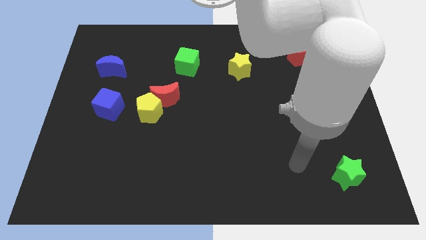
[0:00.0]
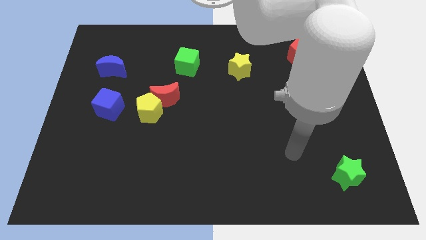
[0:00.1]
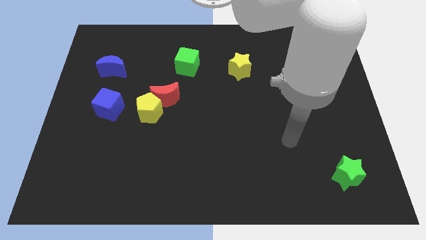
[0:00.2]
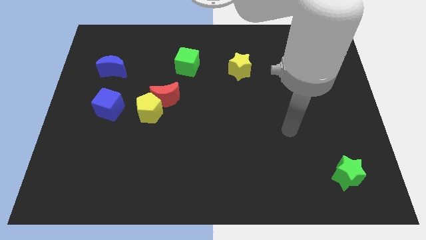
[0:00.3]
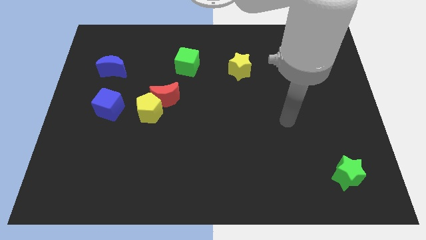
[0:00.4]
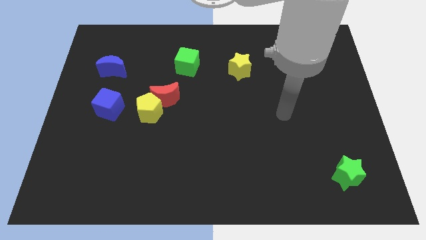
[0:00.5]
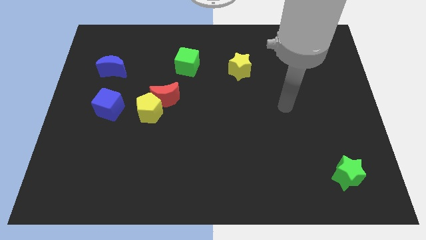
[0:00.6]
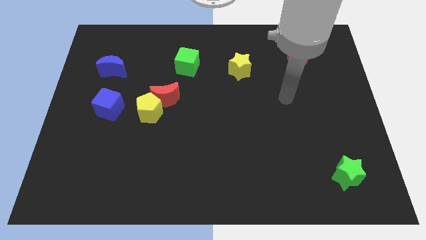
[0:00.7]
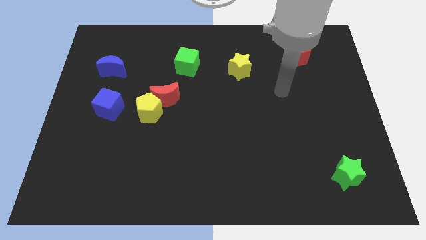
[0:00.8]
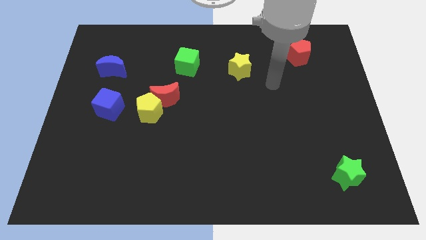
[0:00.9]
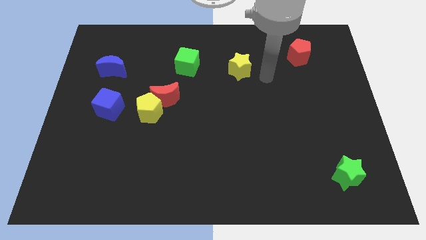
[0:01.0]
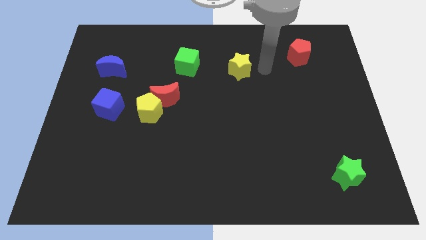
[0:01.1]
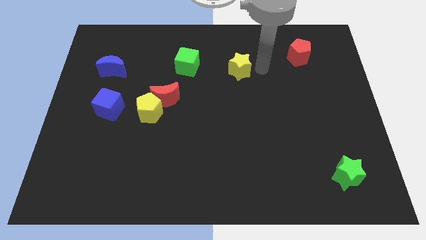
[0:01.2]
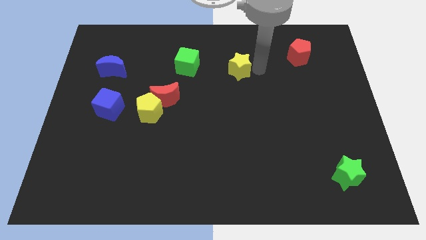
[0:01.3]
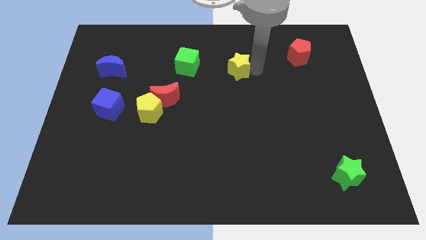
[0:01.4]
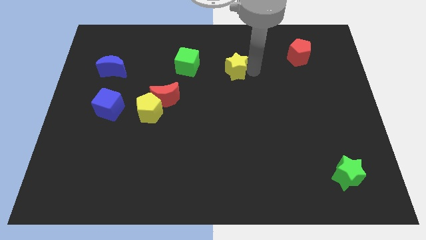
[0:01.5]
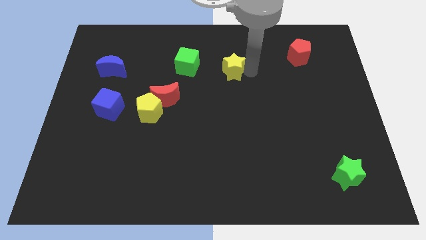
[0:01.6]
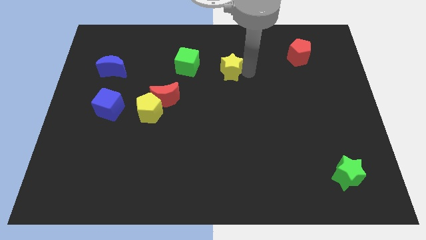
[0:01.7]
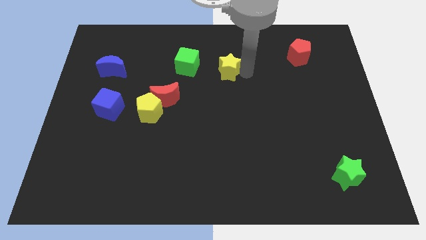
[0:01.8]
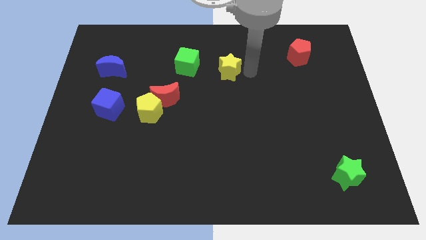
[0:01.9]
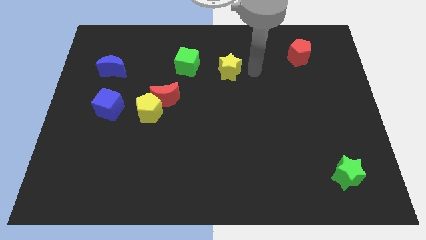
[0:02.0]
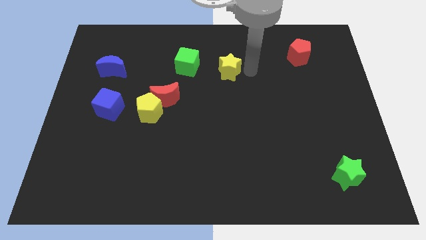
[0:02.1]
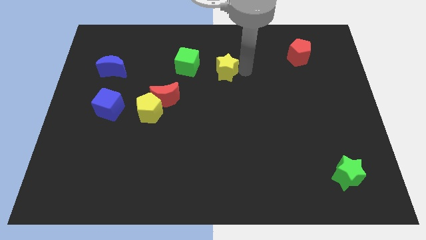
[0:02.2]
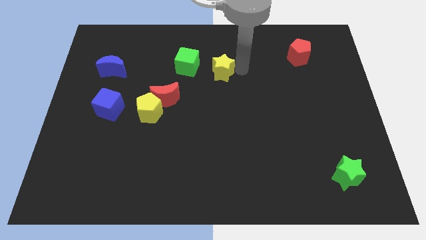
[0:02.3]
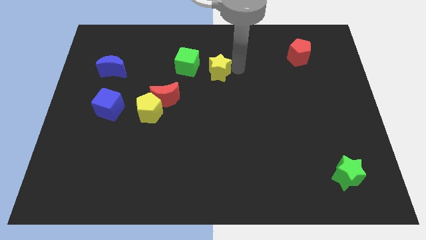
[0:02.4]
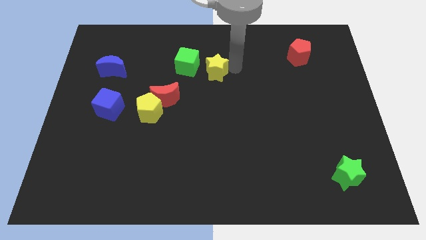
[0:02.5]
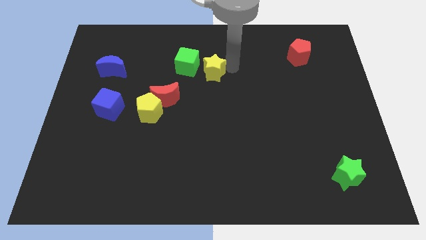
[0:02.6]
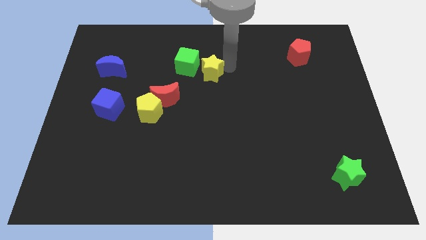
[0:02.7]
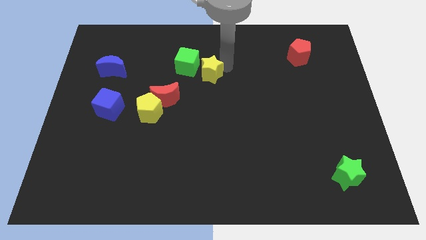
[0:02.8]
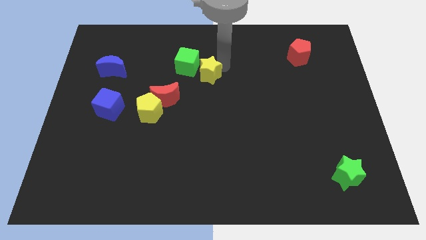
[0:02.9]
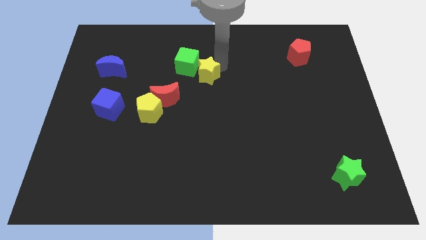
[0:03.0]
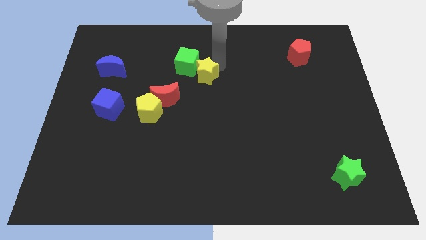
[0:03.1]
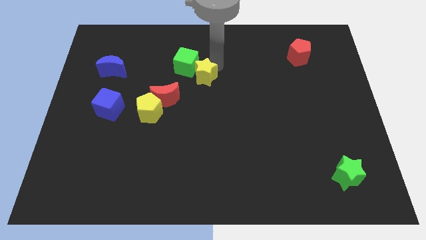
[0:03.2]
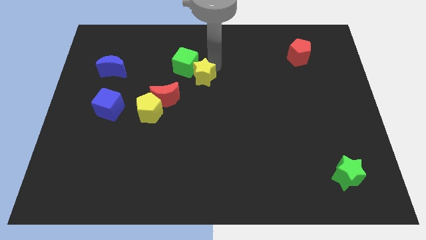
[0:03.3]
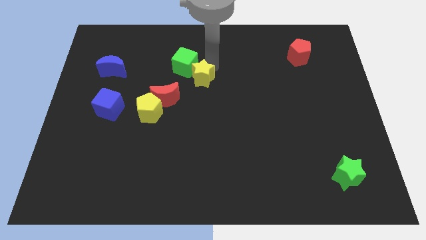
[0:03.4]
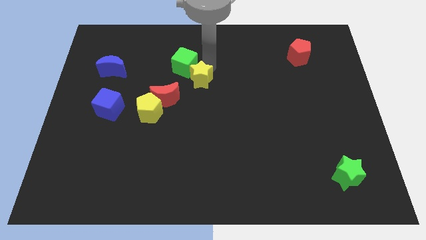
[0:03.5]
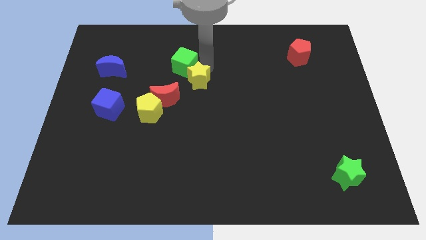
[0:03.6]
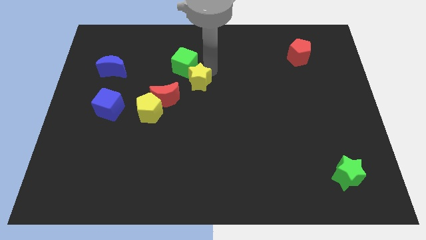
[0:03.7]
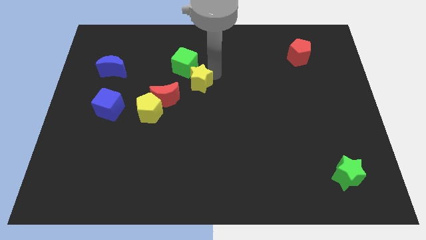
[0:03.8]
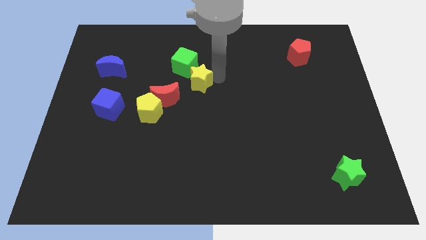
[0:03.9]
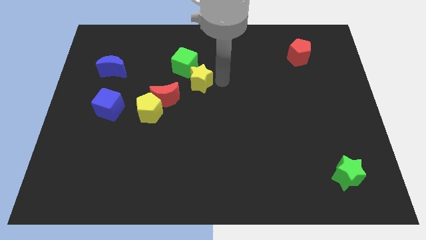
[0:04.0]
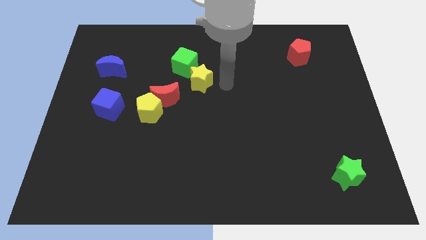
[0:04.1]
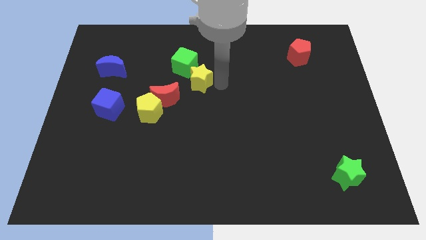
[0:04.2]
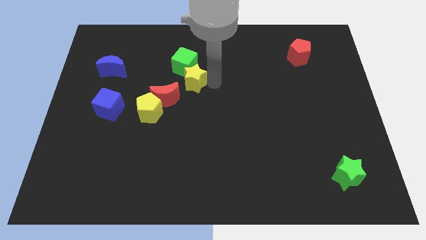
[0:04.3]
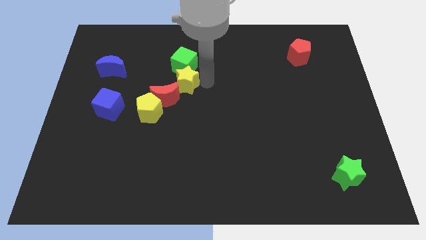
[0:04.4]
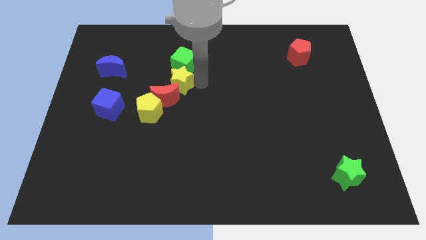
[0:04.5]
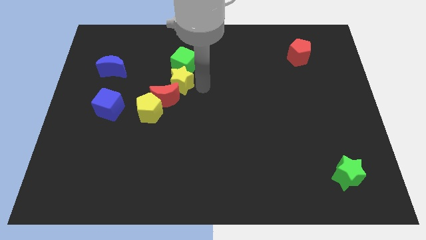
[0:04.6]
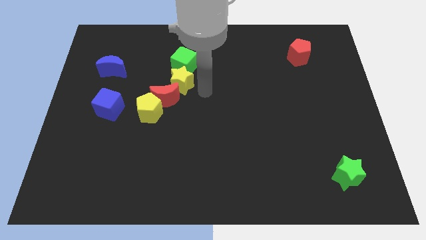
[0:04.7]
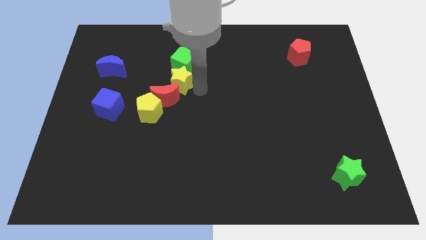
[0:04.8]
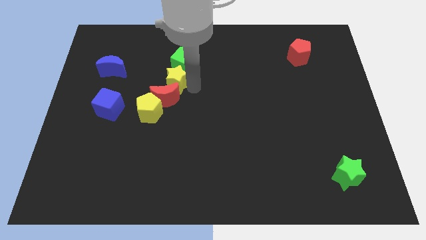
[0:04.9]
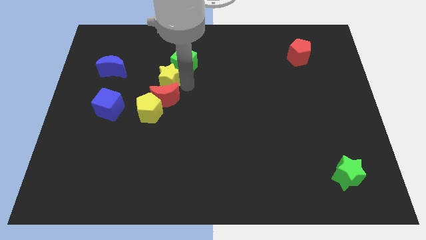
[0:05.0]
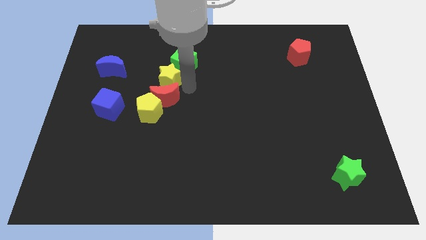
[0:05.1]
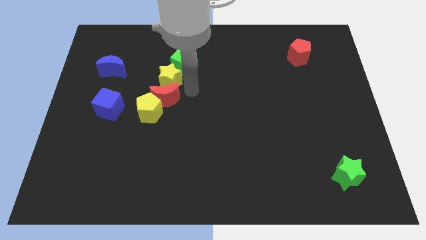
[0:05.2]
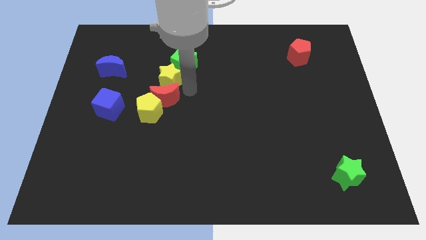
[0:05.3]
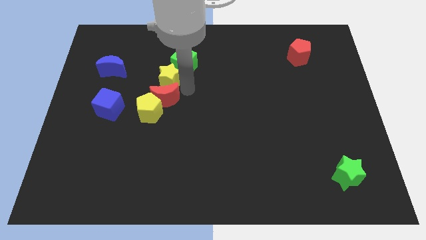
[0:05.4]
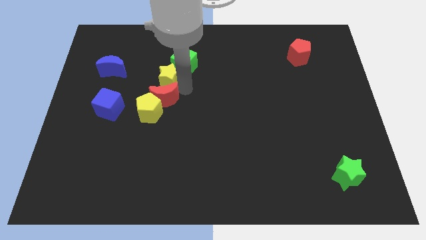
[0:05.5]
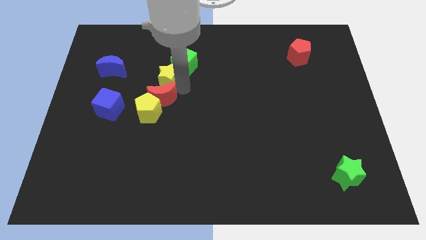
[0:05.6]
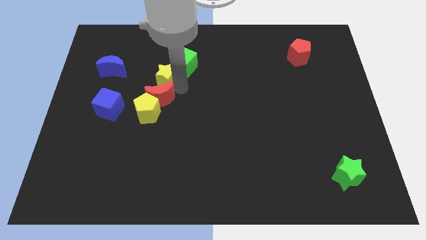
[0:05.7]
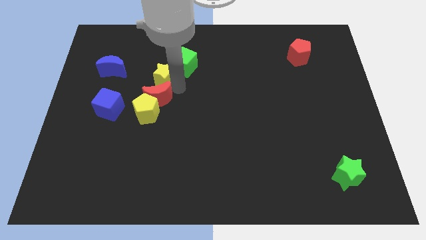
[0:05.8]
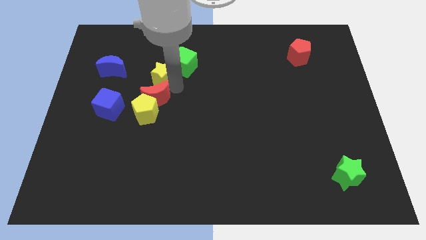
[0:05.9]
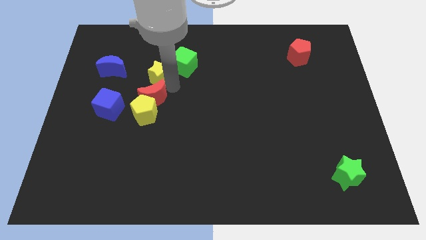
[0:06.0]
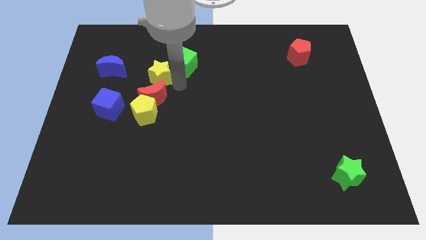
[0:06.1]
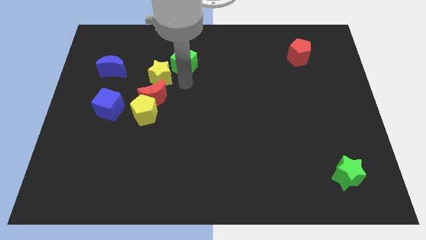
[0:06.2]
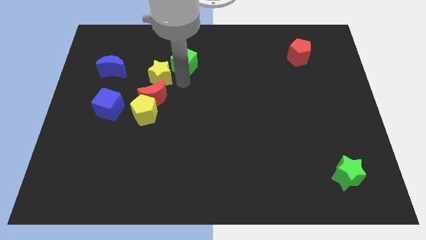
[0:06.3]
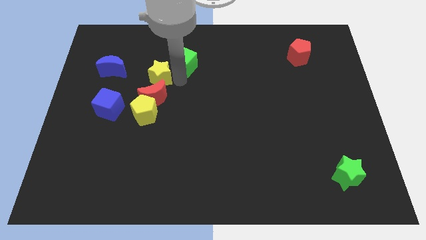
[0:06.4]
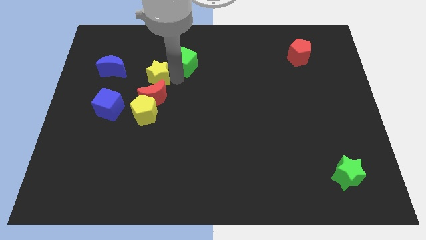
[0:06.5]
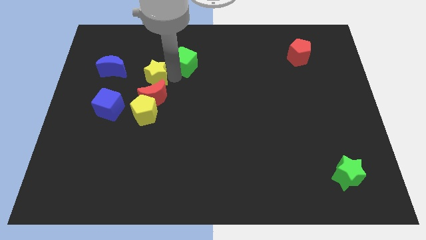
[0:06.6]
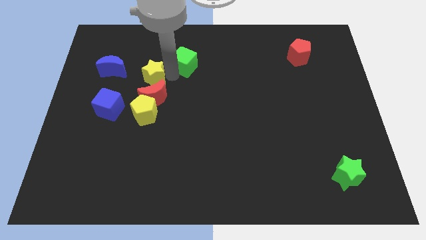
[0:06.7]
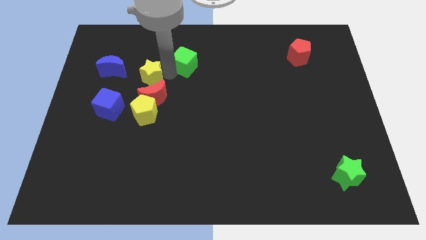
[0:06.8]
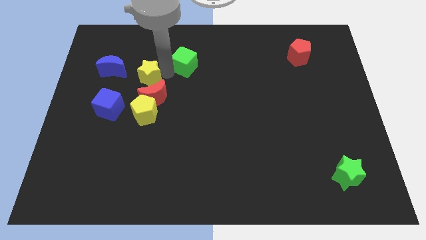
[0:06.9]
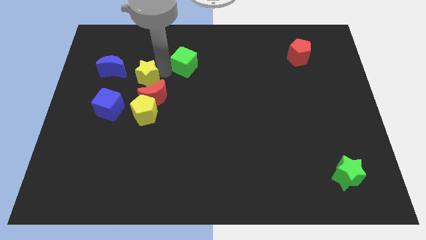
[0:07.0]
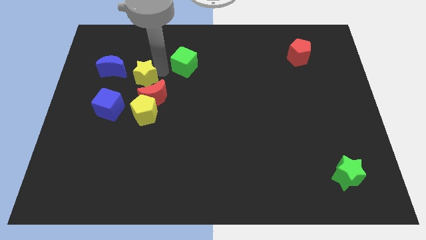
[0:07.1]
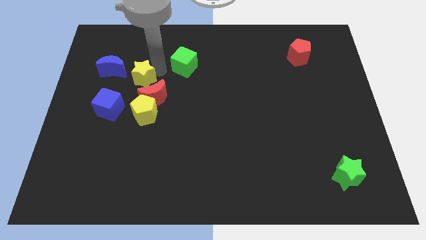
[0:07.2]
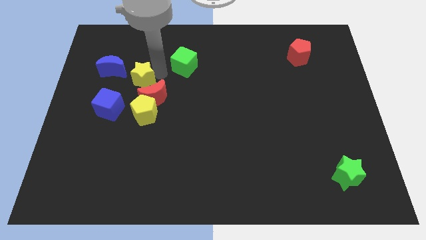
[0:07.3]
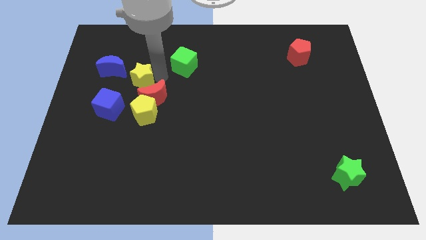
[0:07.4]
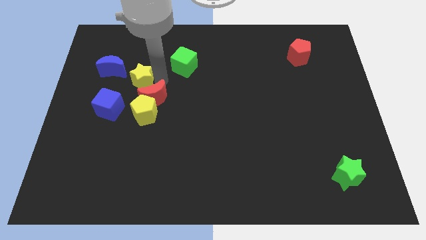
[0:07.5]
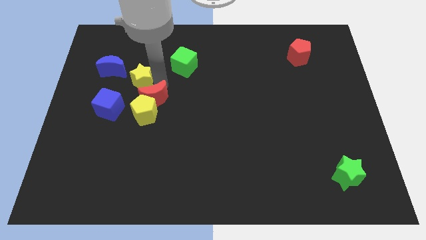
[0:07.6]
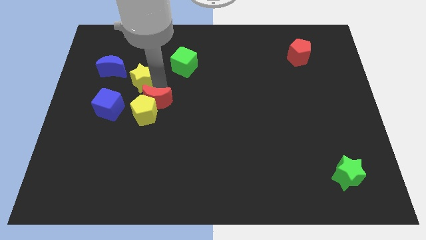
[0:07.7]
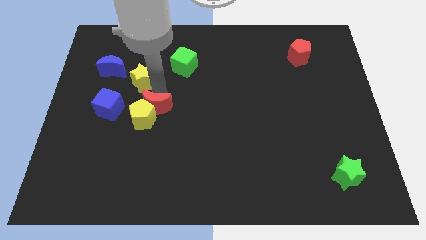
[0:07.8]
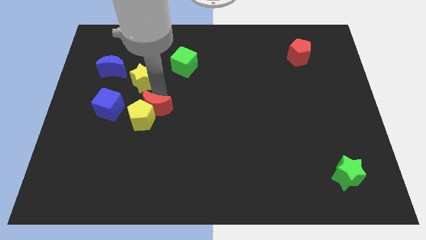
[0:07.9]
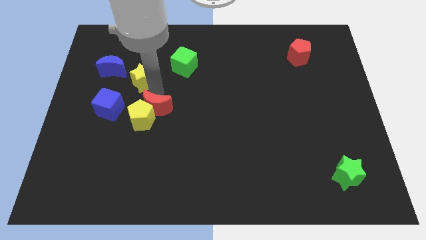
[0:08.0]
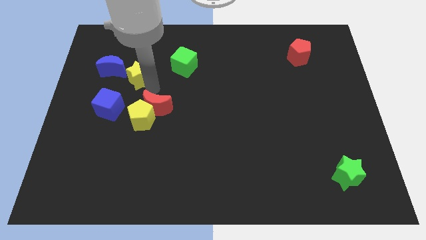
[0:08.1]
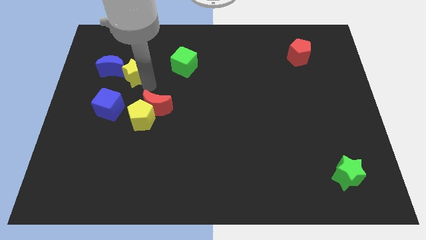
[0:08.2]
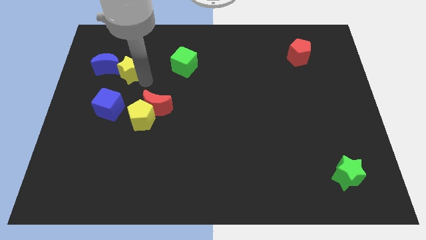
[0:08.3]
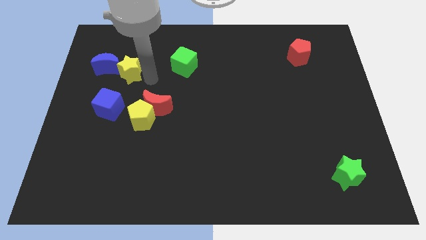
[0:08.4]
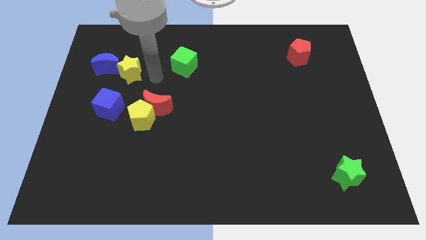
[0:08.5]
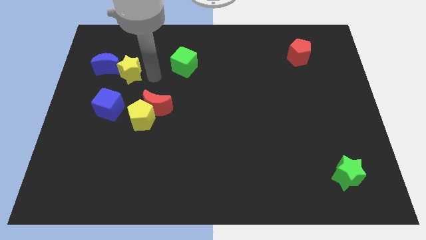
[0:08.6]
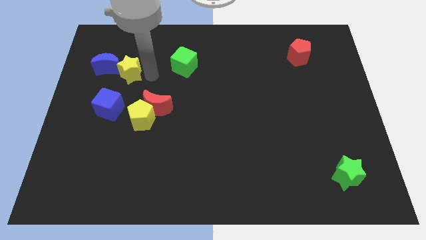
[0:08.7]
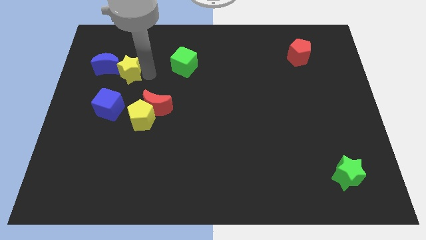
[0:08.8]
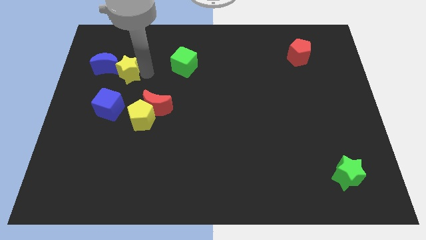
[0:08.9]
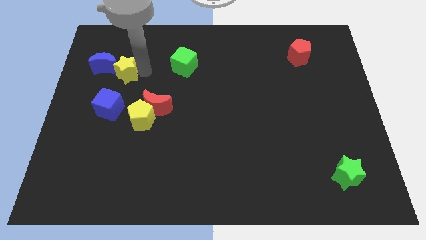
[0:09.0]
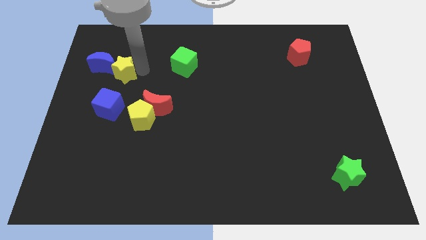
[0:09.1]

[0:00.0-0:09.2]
put the yellow star next to the blue moon
